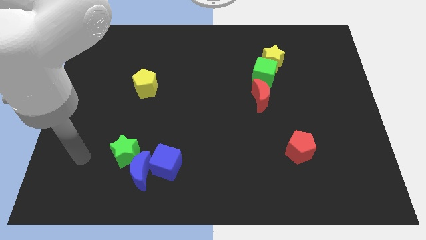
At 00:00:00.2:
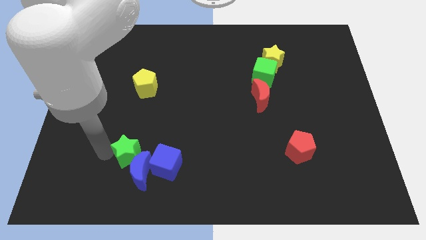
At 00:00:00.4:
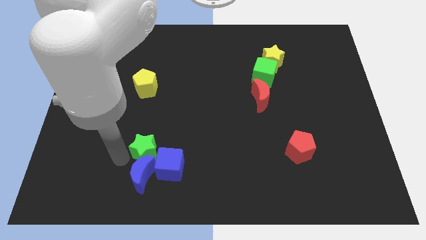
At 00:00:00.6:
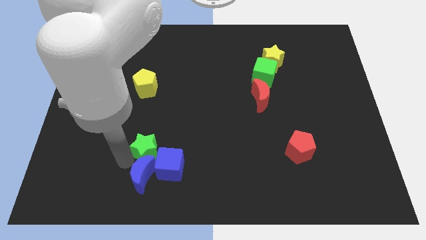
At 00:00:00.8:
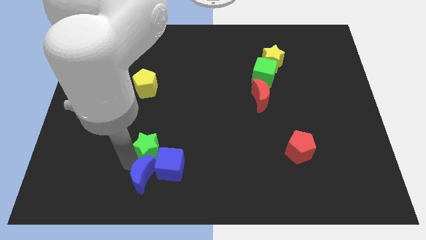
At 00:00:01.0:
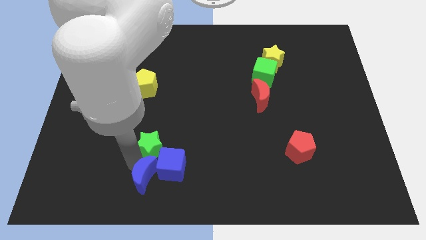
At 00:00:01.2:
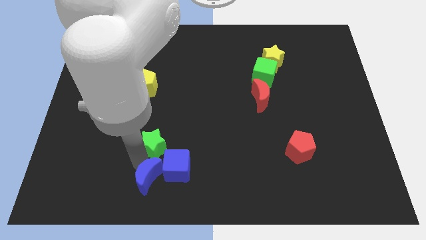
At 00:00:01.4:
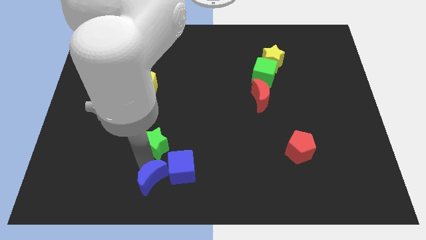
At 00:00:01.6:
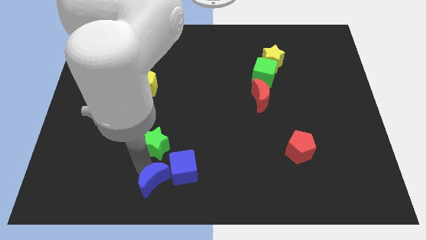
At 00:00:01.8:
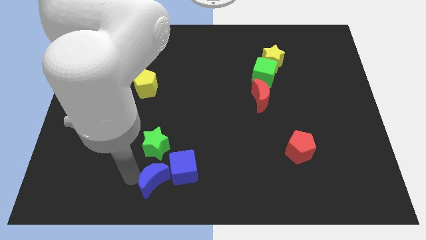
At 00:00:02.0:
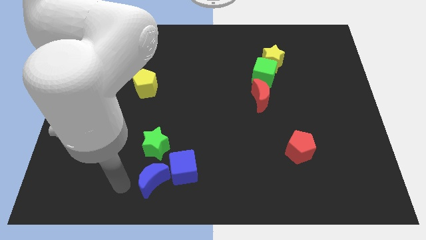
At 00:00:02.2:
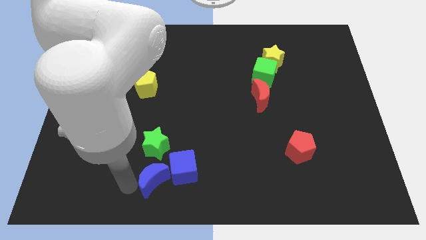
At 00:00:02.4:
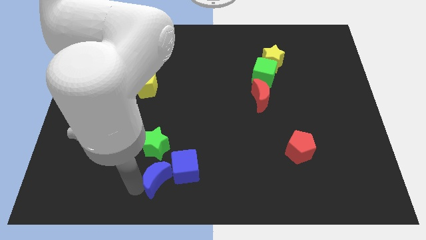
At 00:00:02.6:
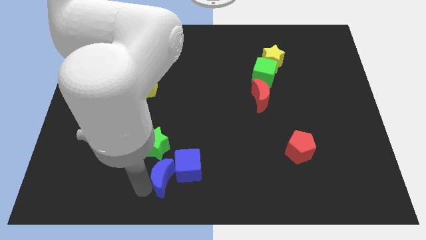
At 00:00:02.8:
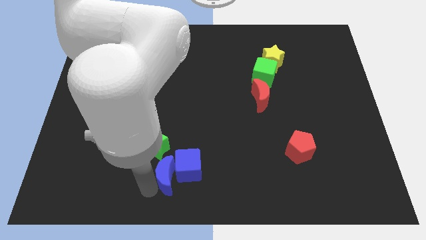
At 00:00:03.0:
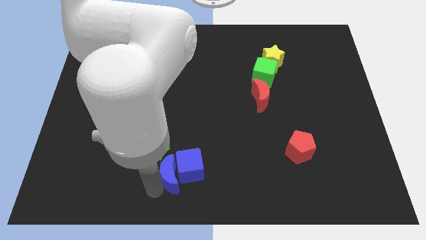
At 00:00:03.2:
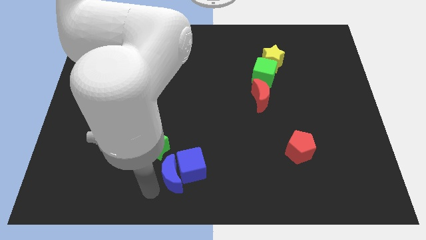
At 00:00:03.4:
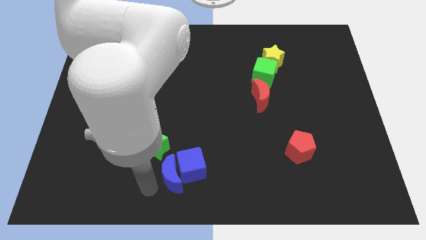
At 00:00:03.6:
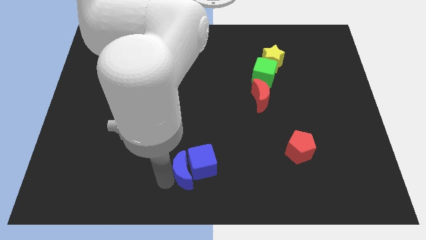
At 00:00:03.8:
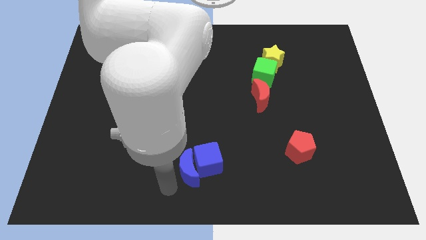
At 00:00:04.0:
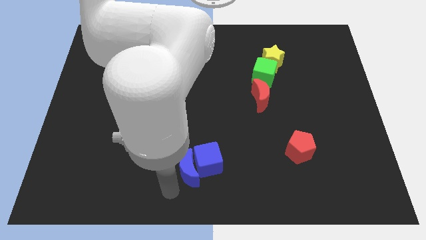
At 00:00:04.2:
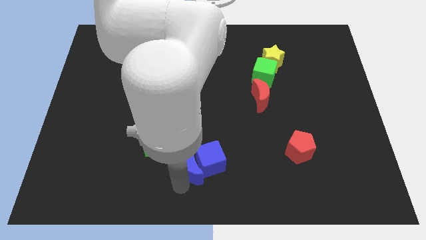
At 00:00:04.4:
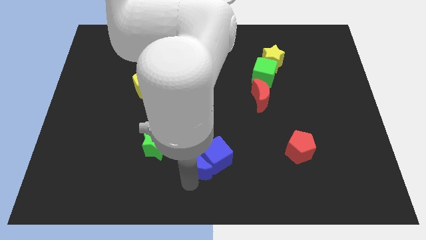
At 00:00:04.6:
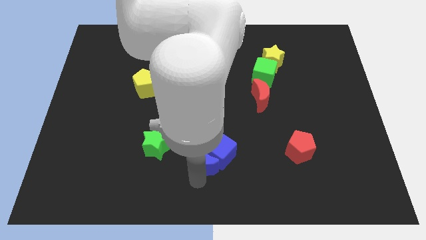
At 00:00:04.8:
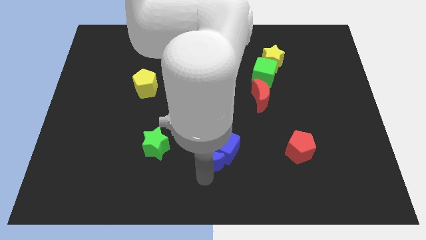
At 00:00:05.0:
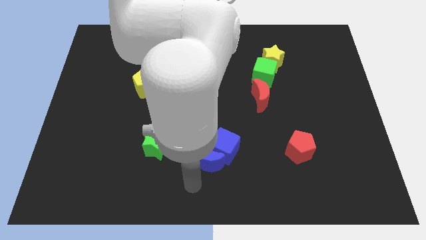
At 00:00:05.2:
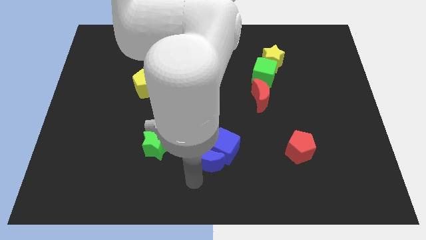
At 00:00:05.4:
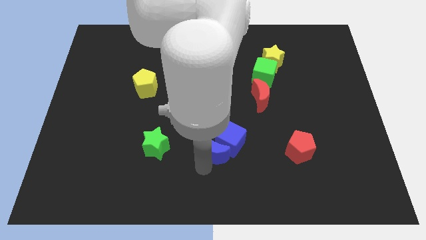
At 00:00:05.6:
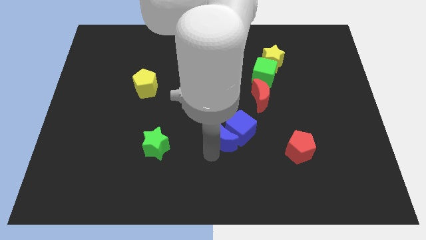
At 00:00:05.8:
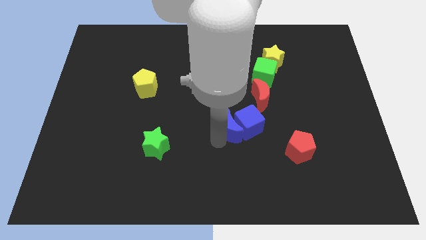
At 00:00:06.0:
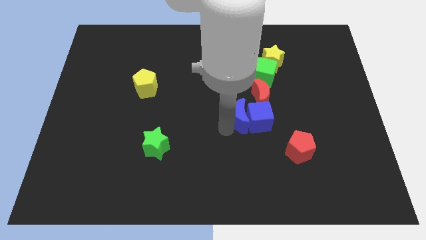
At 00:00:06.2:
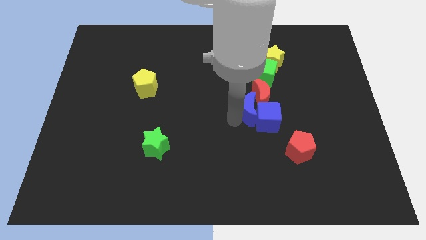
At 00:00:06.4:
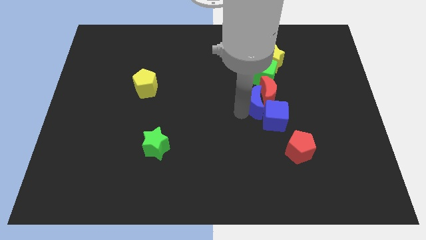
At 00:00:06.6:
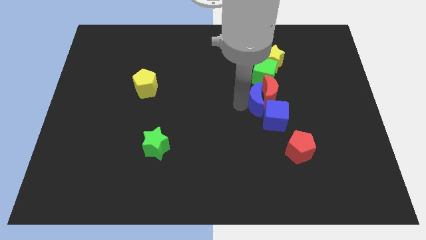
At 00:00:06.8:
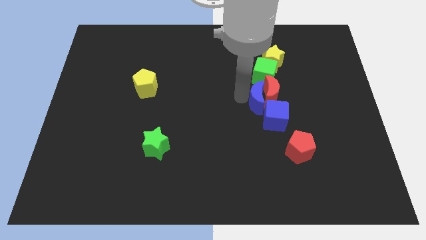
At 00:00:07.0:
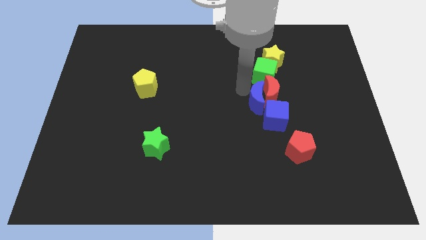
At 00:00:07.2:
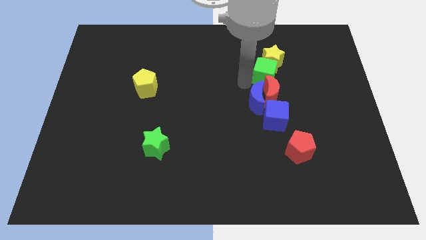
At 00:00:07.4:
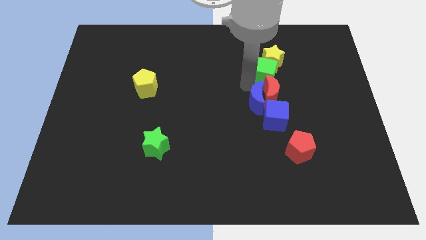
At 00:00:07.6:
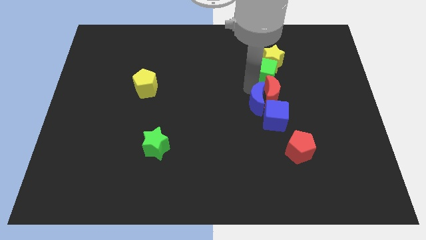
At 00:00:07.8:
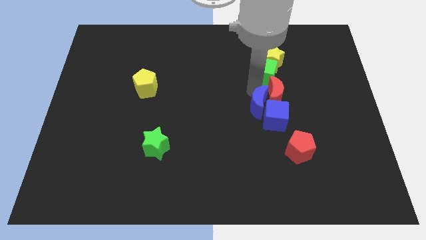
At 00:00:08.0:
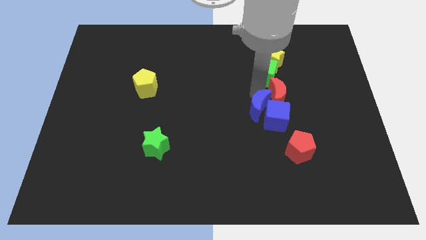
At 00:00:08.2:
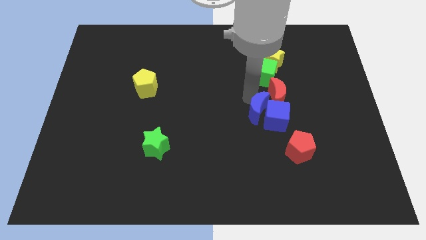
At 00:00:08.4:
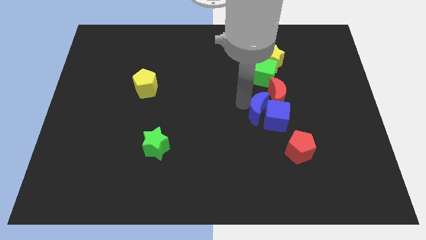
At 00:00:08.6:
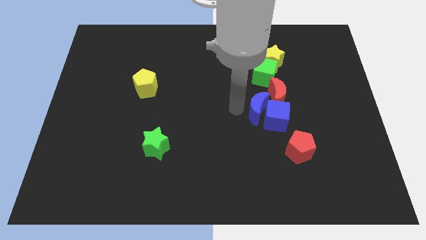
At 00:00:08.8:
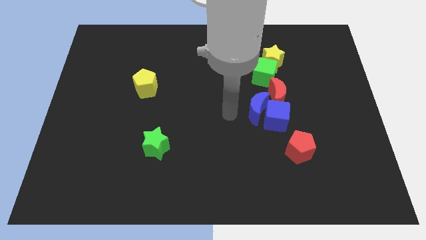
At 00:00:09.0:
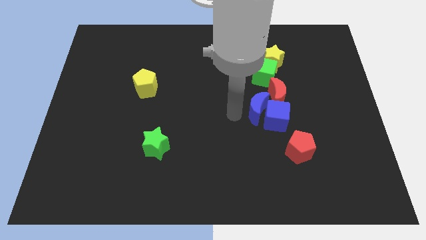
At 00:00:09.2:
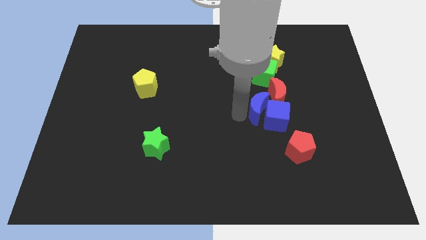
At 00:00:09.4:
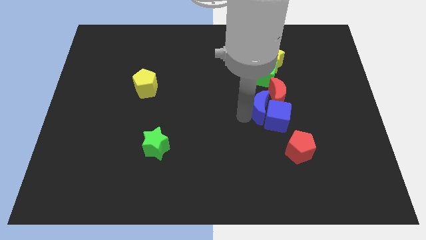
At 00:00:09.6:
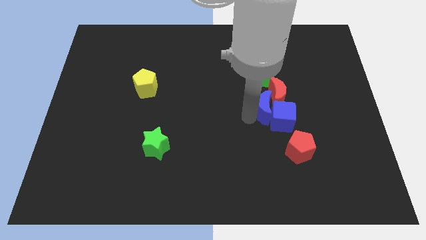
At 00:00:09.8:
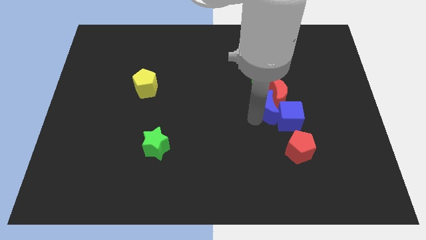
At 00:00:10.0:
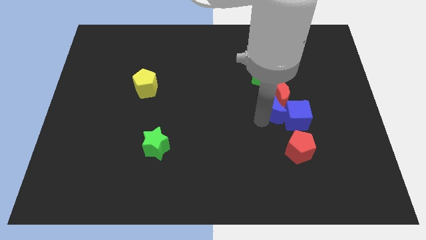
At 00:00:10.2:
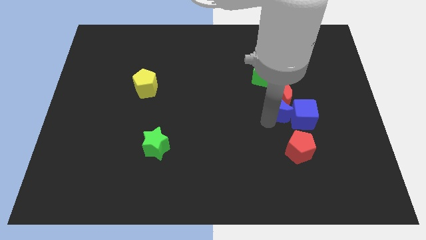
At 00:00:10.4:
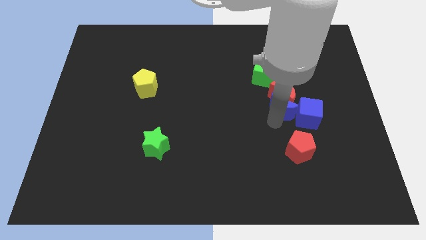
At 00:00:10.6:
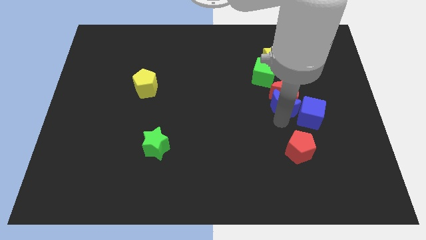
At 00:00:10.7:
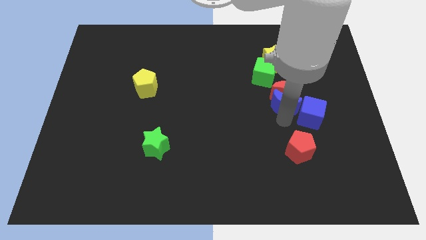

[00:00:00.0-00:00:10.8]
slide the blue moon to the bottom right side of the green cube

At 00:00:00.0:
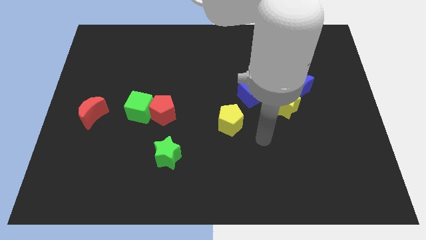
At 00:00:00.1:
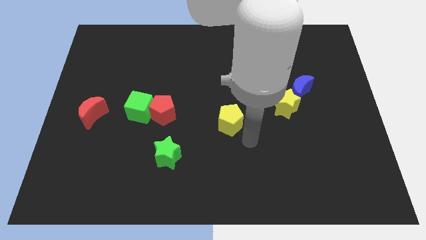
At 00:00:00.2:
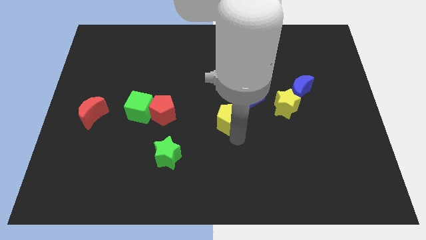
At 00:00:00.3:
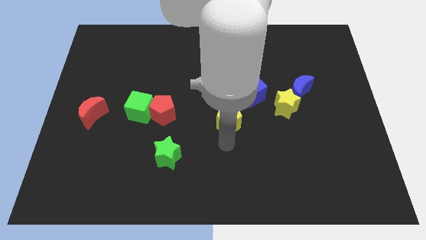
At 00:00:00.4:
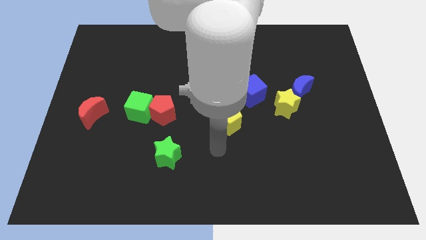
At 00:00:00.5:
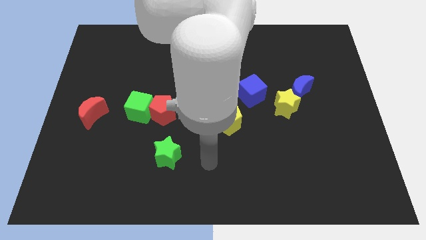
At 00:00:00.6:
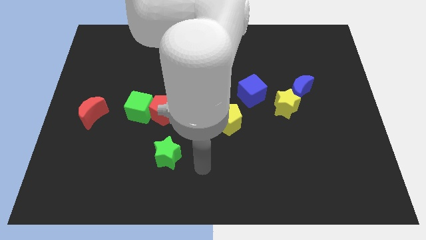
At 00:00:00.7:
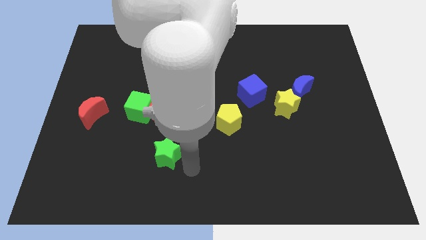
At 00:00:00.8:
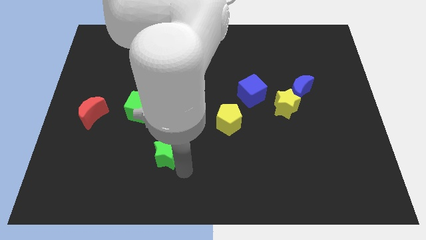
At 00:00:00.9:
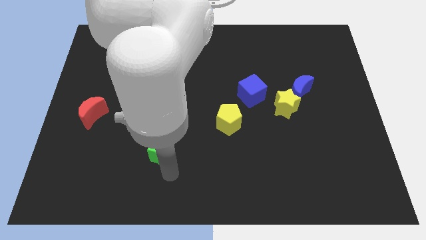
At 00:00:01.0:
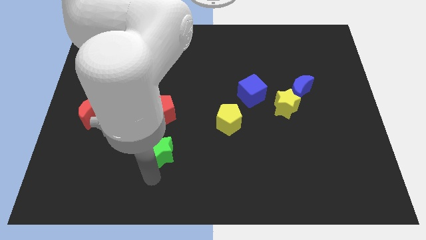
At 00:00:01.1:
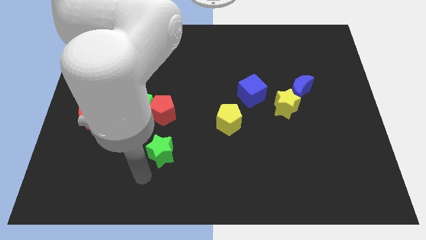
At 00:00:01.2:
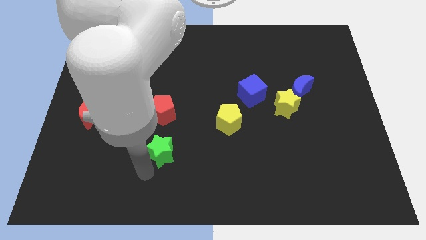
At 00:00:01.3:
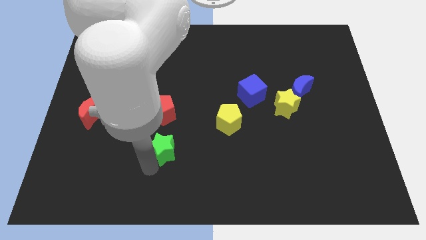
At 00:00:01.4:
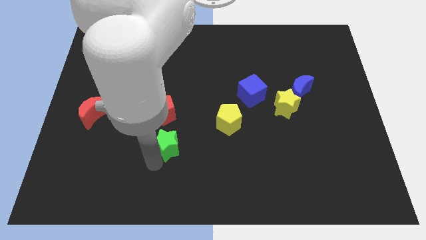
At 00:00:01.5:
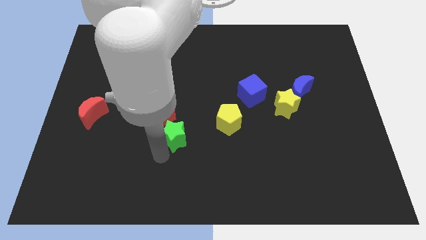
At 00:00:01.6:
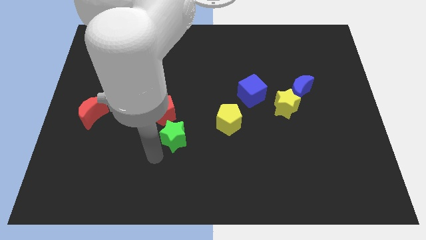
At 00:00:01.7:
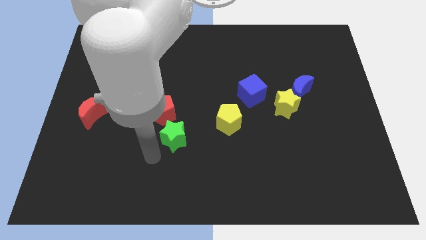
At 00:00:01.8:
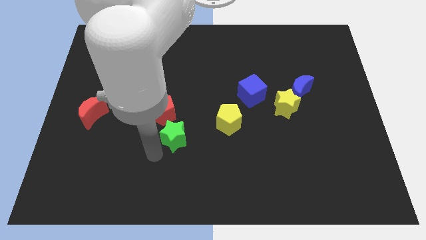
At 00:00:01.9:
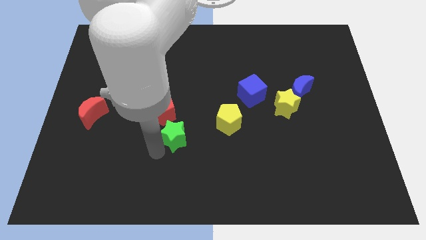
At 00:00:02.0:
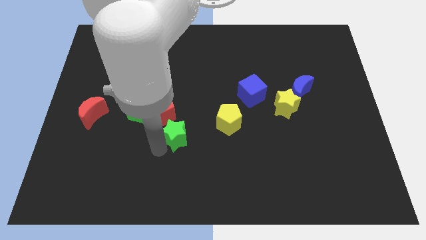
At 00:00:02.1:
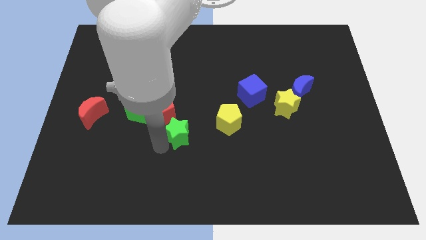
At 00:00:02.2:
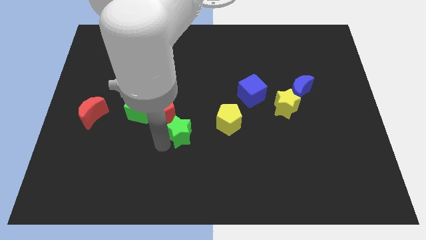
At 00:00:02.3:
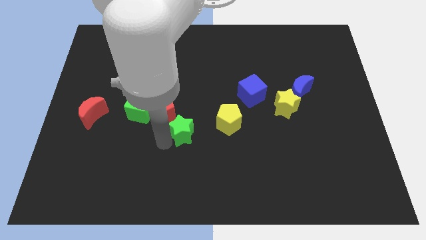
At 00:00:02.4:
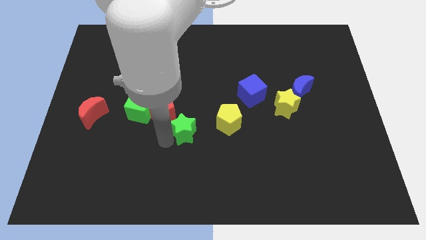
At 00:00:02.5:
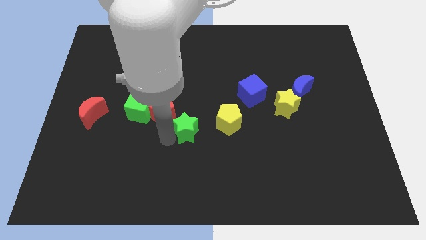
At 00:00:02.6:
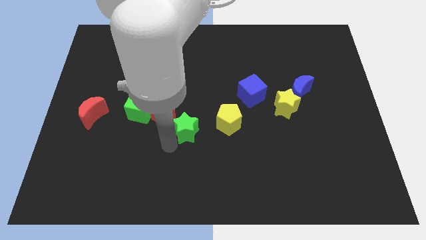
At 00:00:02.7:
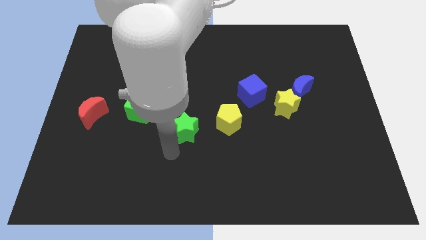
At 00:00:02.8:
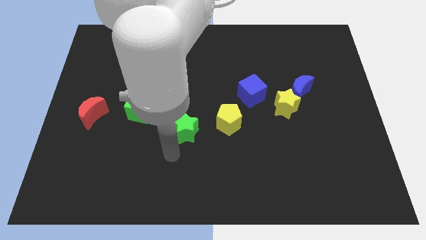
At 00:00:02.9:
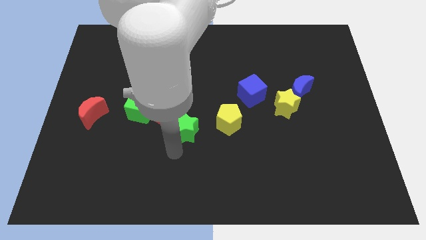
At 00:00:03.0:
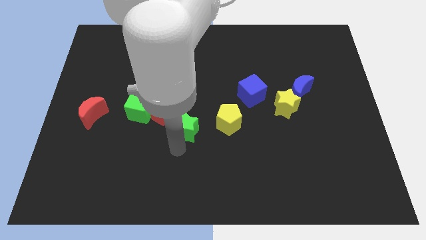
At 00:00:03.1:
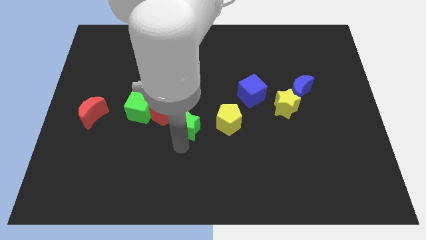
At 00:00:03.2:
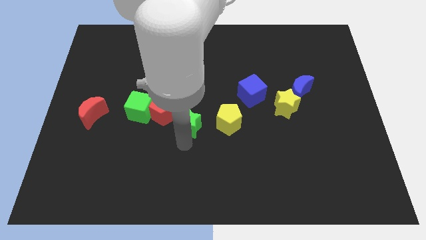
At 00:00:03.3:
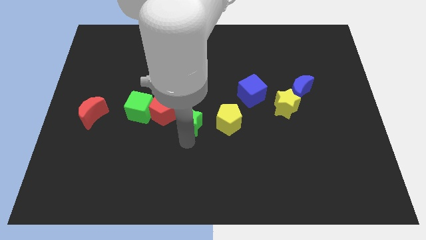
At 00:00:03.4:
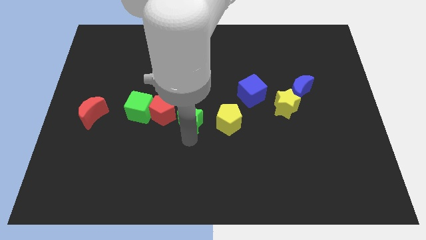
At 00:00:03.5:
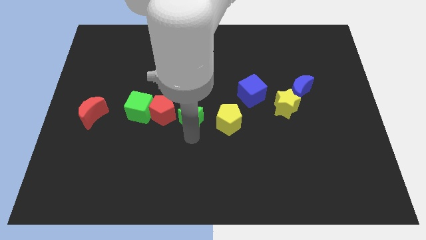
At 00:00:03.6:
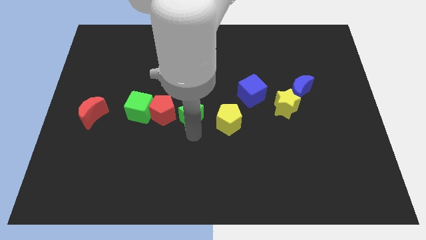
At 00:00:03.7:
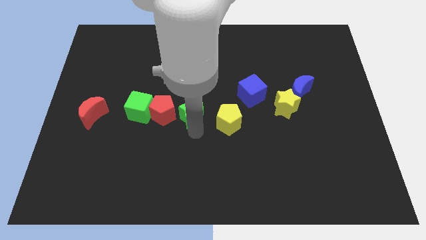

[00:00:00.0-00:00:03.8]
slide the green star diagonally up and to the left of the yellow pentagon
